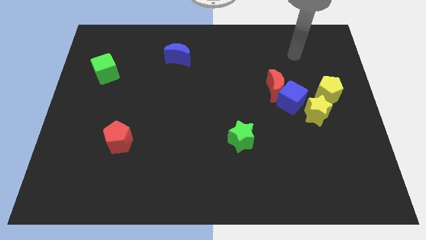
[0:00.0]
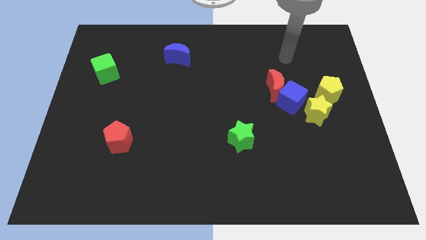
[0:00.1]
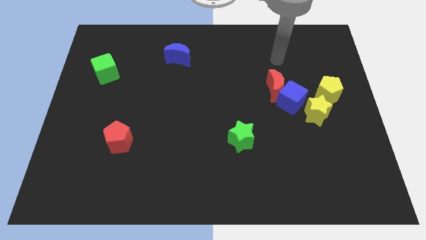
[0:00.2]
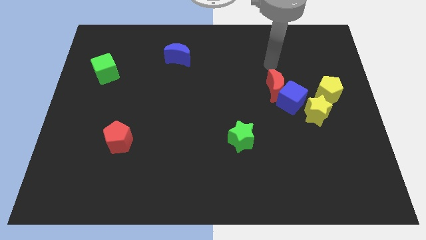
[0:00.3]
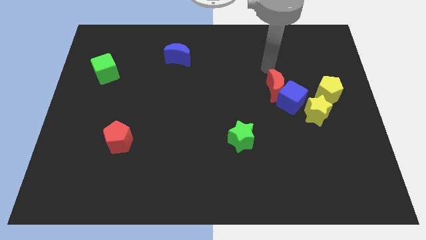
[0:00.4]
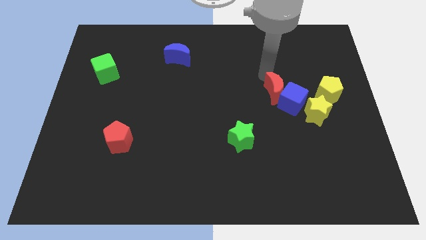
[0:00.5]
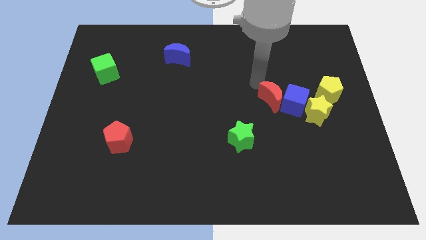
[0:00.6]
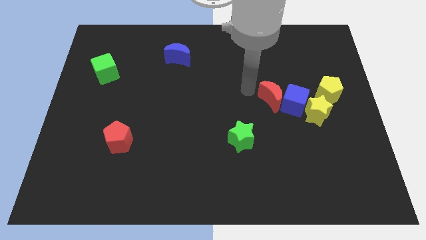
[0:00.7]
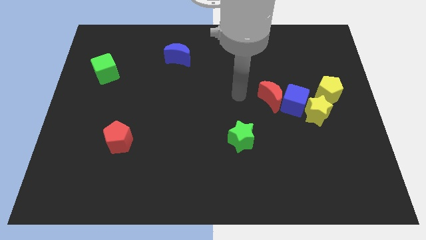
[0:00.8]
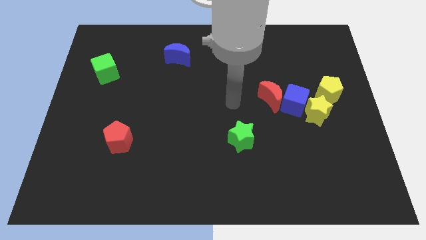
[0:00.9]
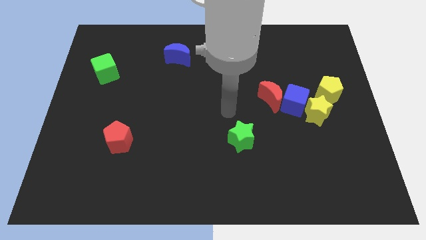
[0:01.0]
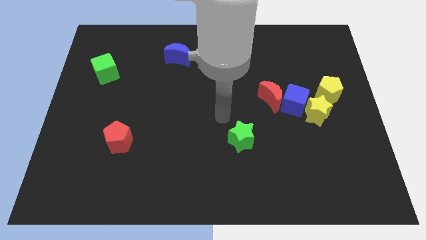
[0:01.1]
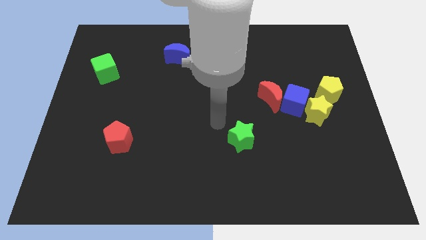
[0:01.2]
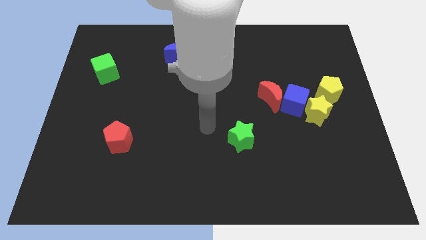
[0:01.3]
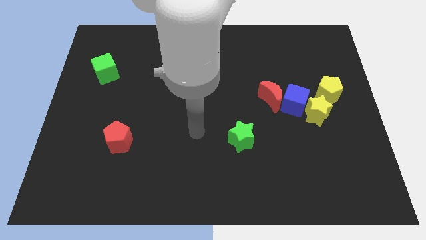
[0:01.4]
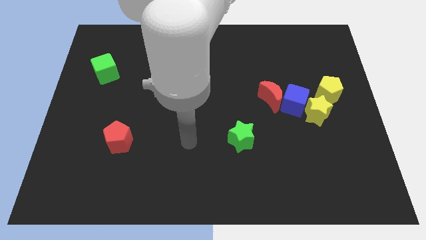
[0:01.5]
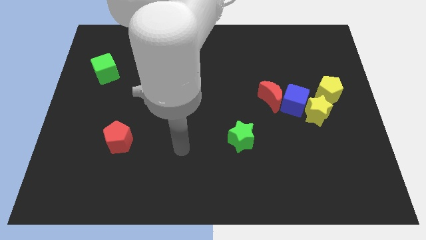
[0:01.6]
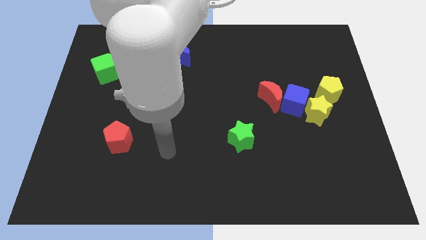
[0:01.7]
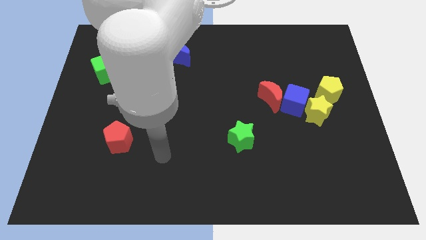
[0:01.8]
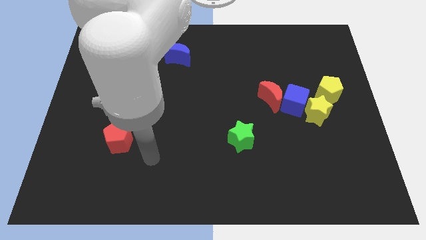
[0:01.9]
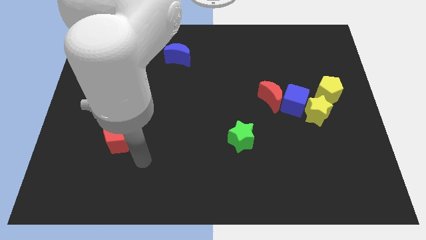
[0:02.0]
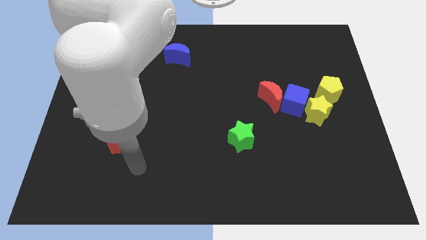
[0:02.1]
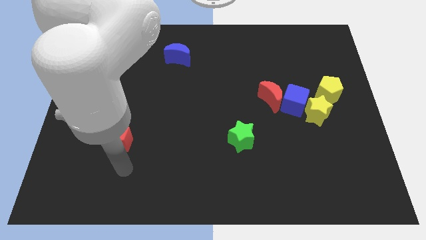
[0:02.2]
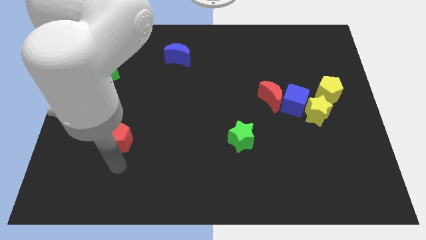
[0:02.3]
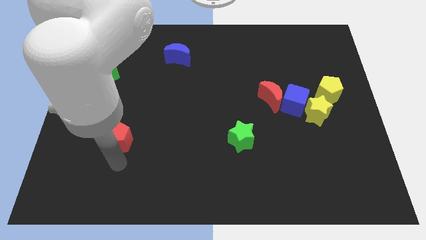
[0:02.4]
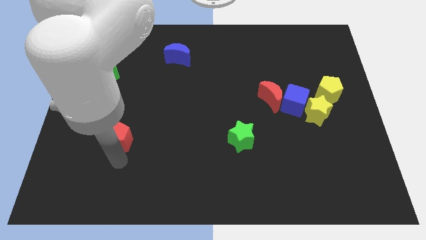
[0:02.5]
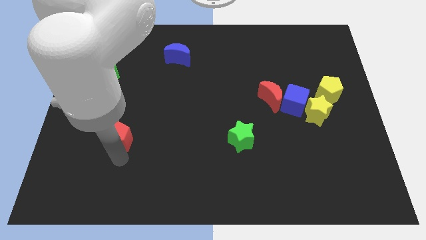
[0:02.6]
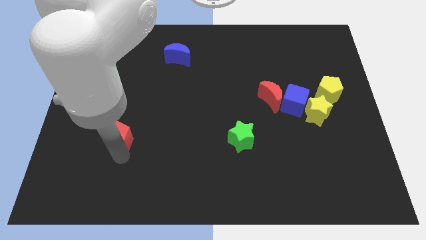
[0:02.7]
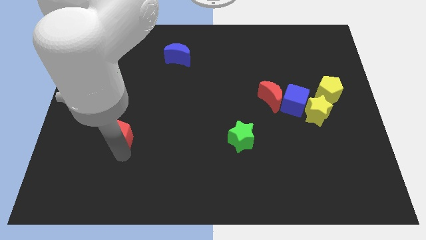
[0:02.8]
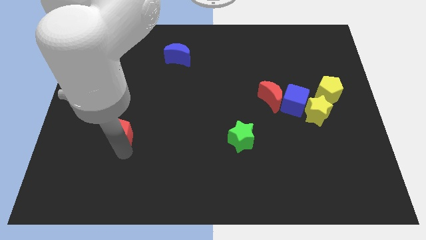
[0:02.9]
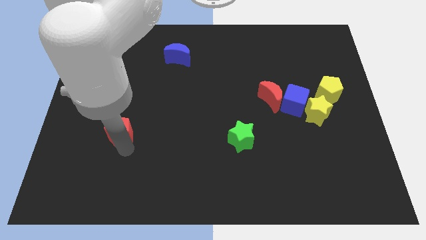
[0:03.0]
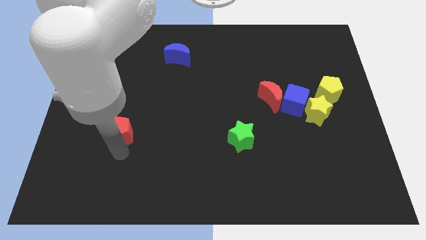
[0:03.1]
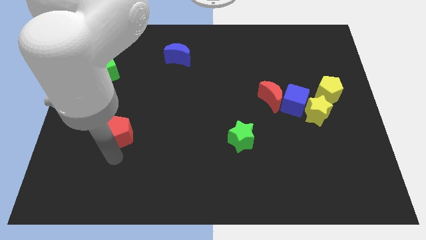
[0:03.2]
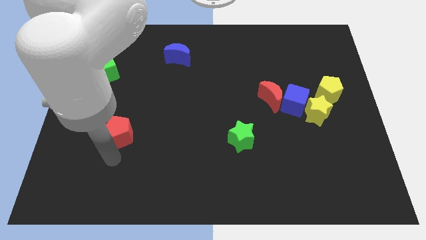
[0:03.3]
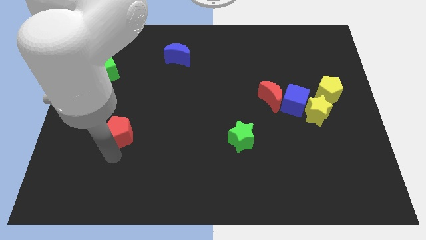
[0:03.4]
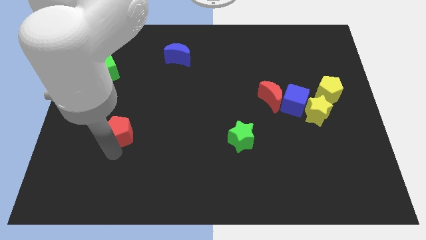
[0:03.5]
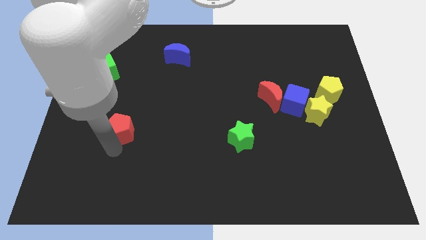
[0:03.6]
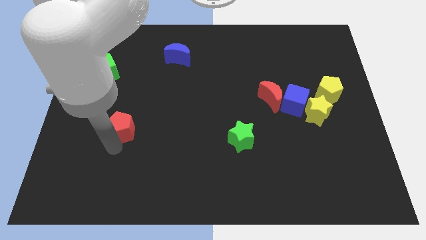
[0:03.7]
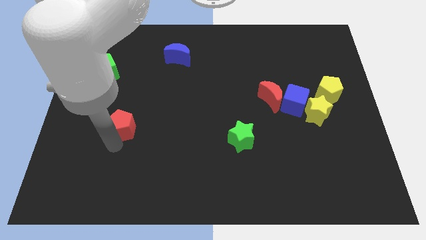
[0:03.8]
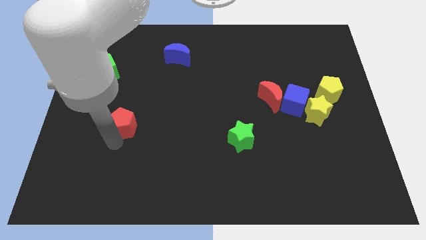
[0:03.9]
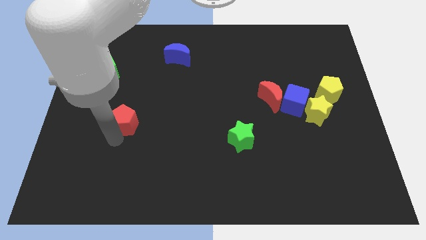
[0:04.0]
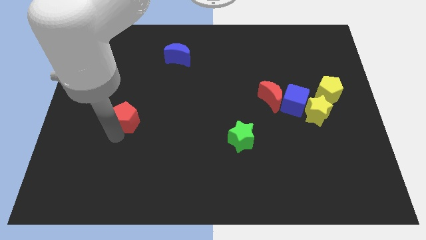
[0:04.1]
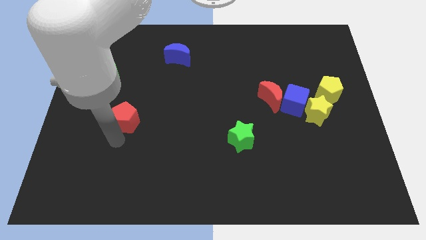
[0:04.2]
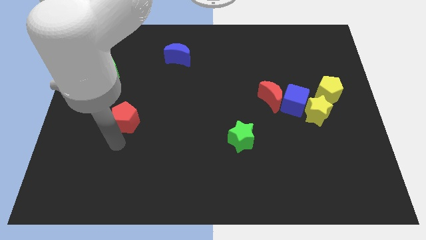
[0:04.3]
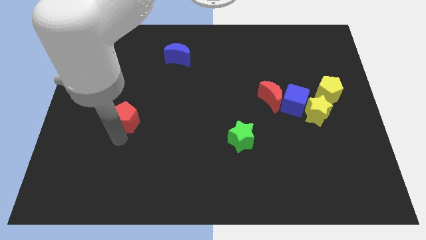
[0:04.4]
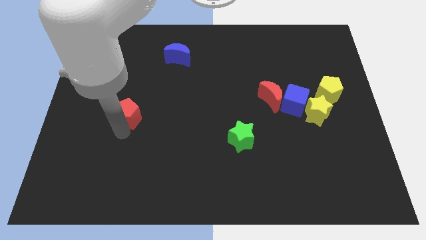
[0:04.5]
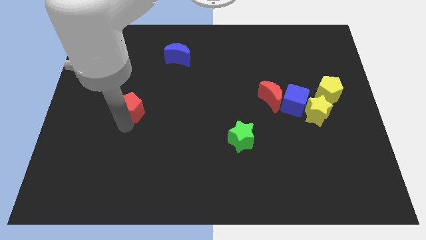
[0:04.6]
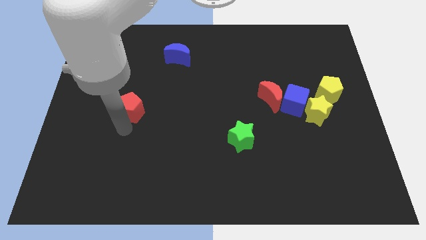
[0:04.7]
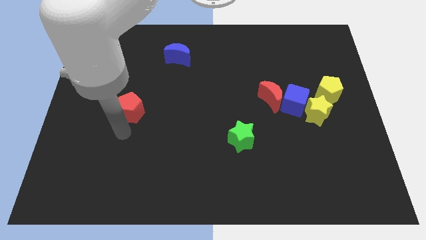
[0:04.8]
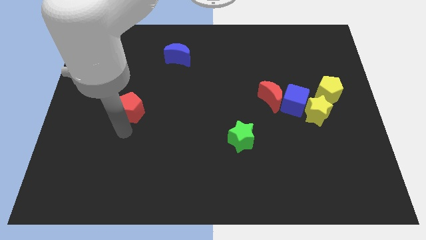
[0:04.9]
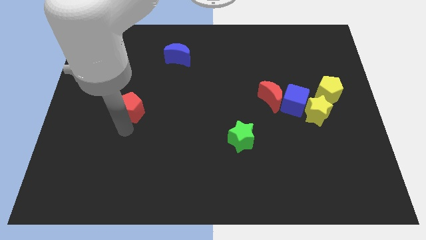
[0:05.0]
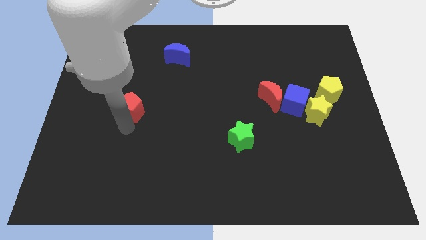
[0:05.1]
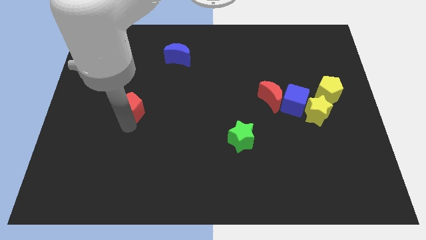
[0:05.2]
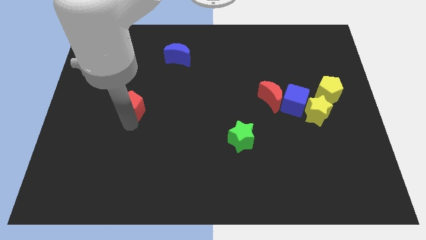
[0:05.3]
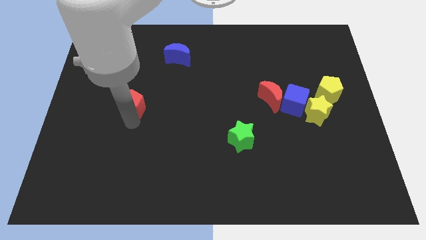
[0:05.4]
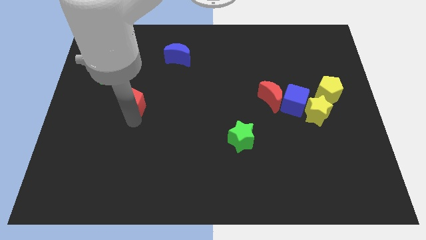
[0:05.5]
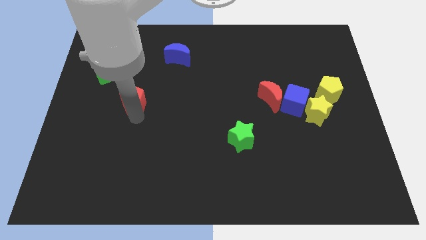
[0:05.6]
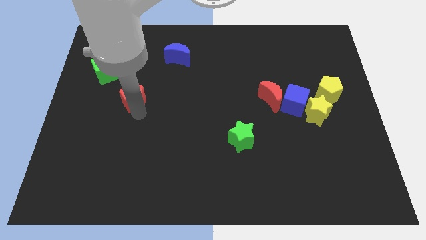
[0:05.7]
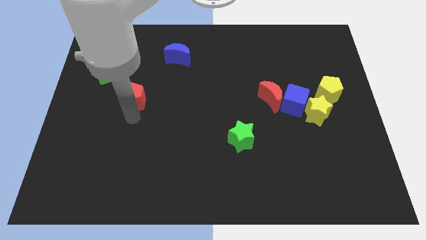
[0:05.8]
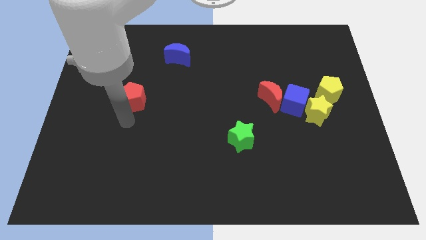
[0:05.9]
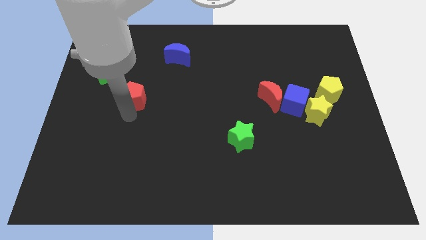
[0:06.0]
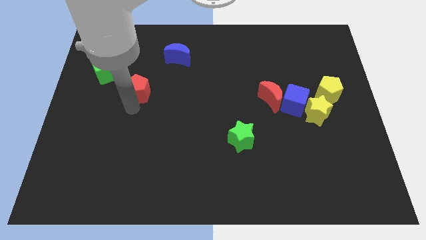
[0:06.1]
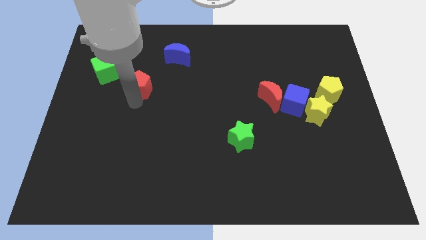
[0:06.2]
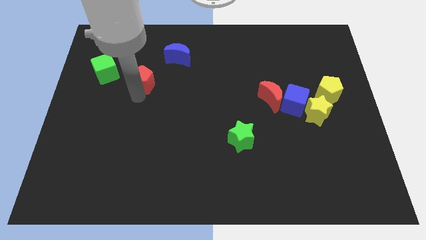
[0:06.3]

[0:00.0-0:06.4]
move the red pentagon right of the green cube
